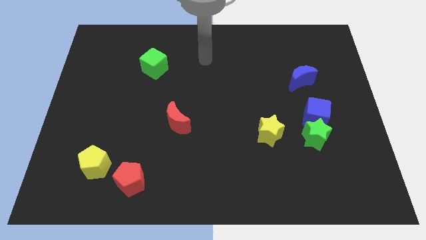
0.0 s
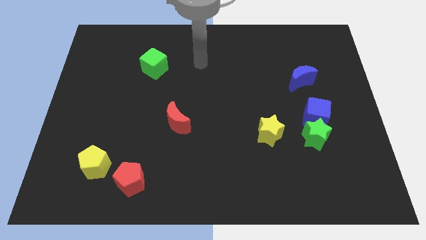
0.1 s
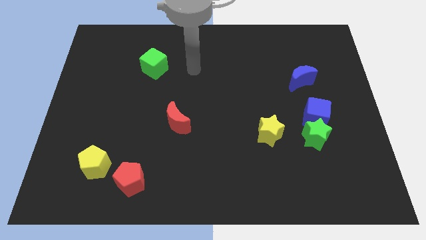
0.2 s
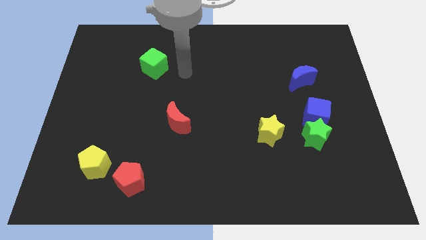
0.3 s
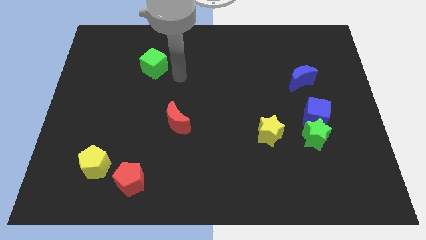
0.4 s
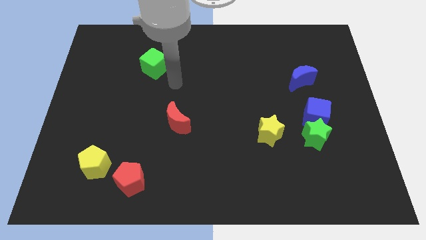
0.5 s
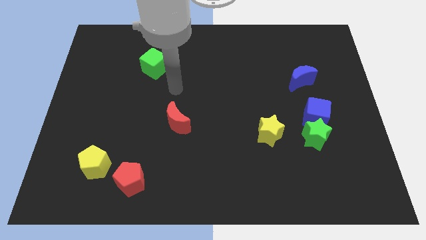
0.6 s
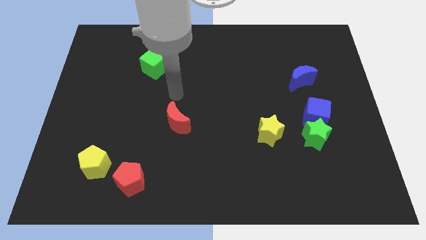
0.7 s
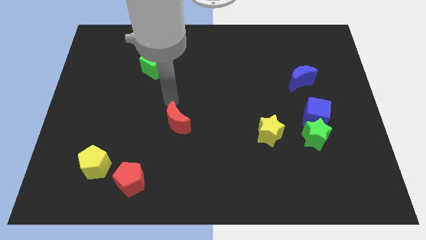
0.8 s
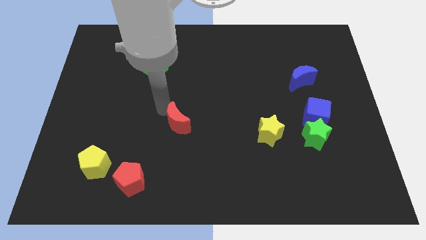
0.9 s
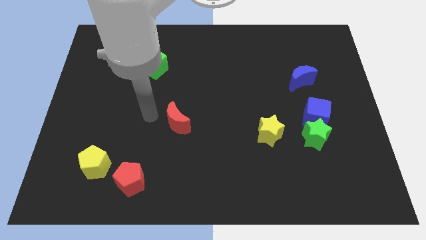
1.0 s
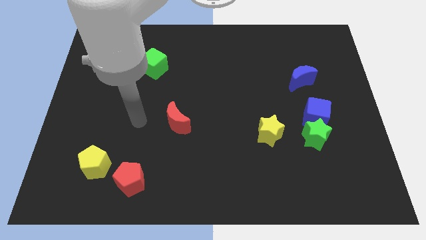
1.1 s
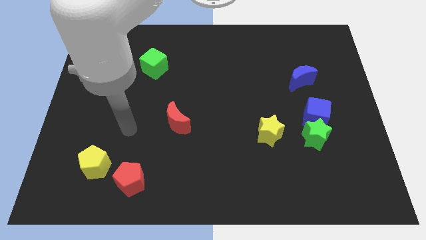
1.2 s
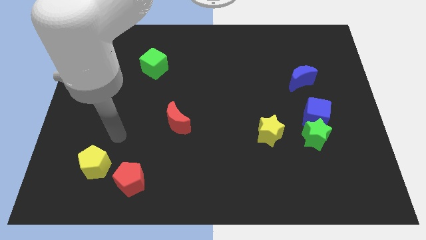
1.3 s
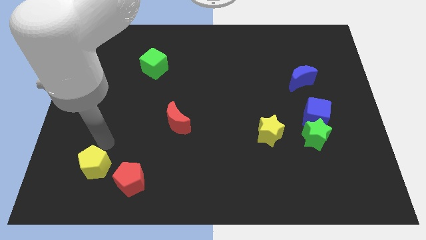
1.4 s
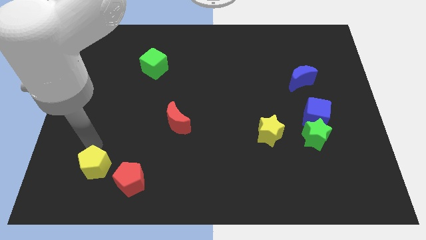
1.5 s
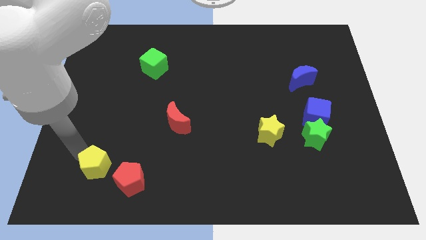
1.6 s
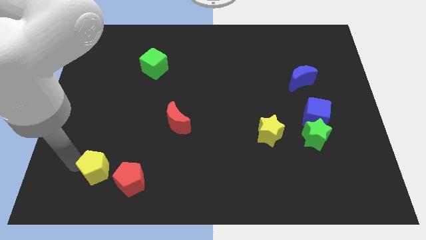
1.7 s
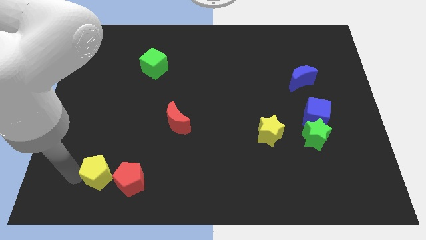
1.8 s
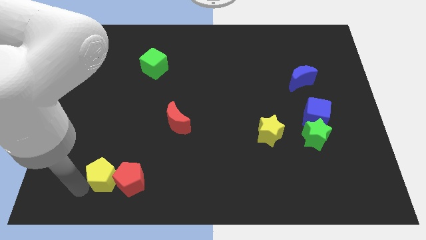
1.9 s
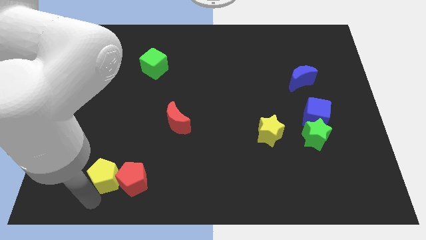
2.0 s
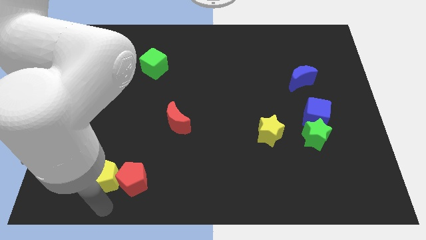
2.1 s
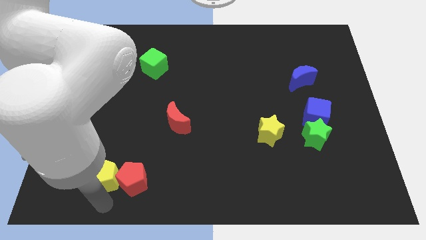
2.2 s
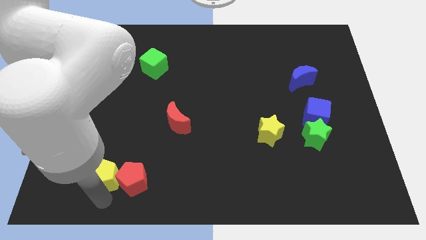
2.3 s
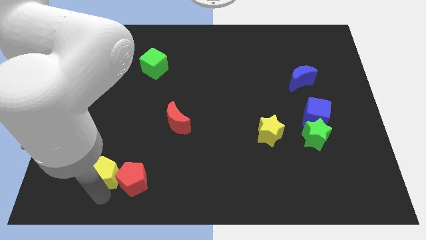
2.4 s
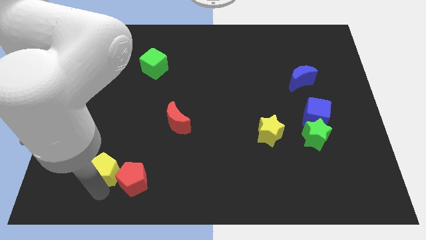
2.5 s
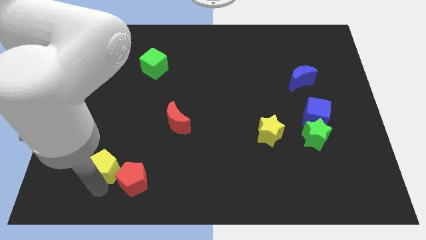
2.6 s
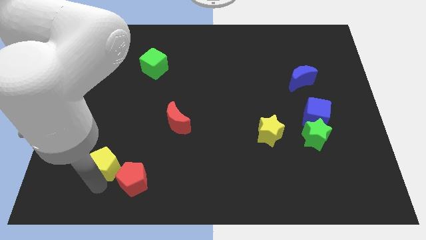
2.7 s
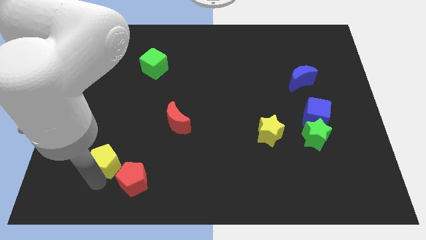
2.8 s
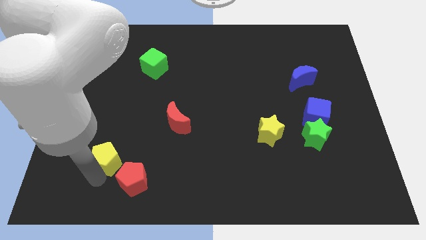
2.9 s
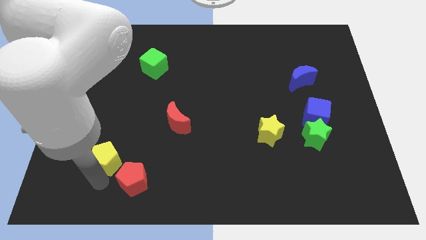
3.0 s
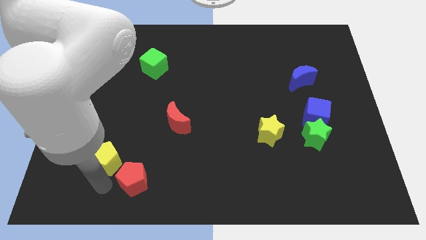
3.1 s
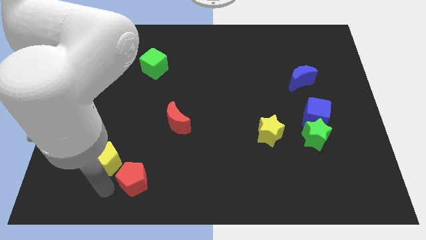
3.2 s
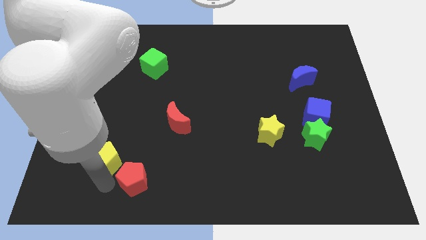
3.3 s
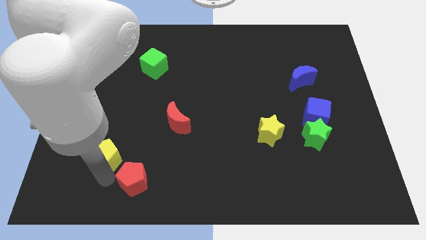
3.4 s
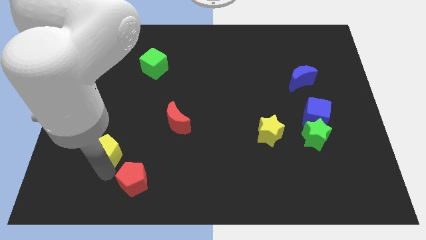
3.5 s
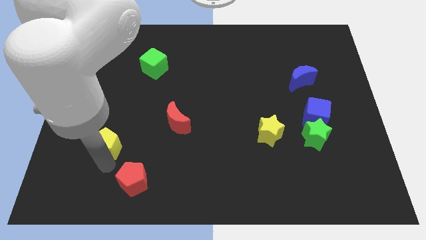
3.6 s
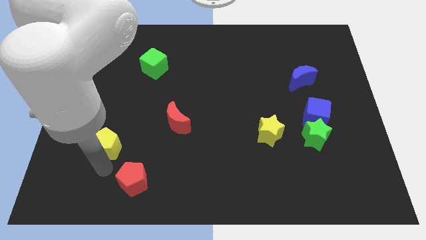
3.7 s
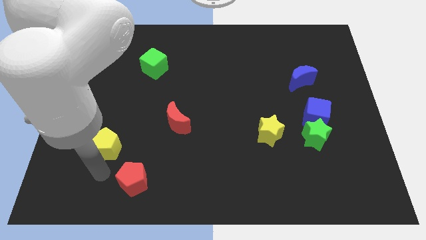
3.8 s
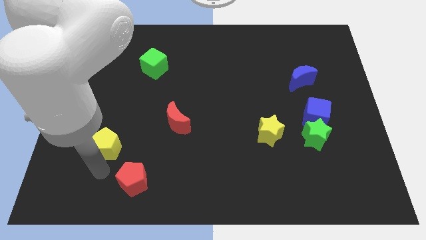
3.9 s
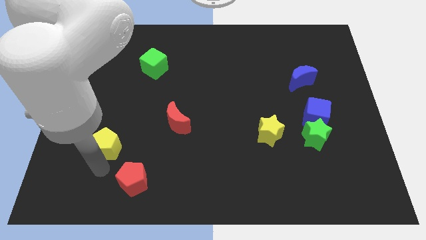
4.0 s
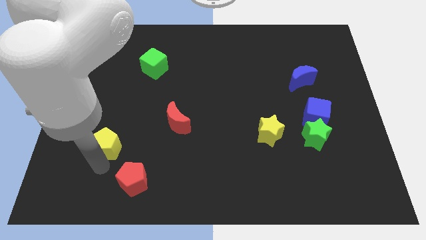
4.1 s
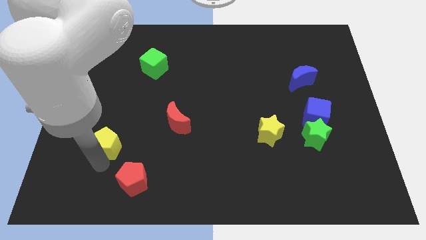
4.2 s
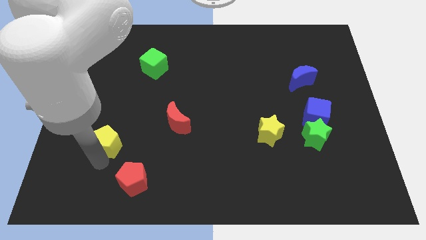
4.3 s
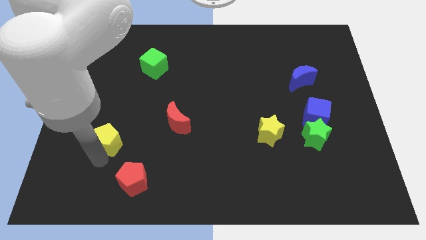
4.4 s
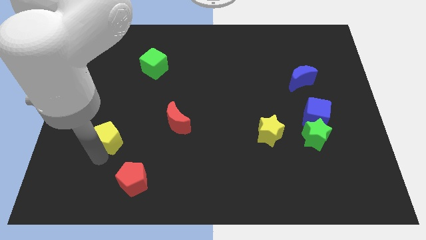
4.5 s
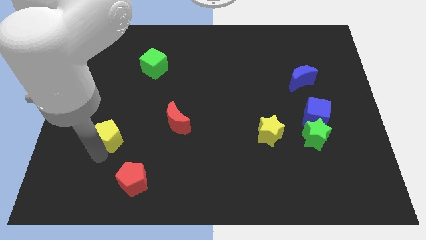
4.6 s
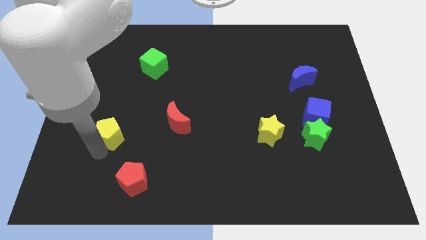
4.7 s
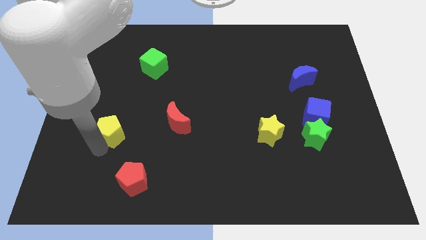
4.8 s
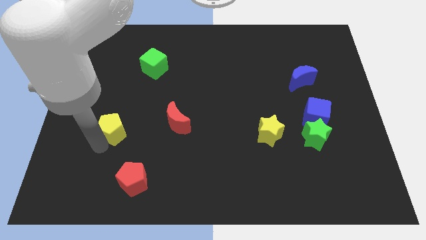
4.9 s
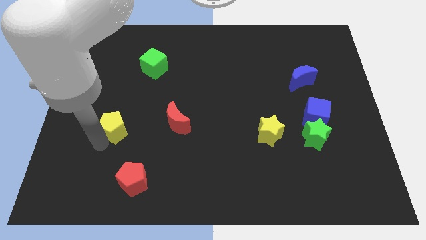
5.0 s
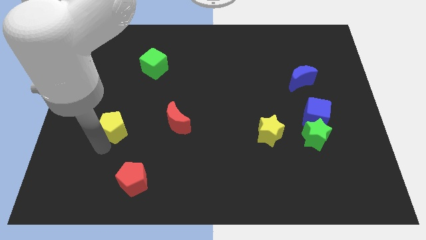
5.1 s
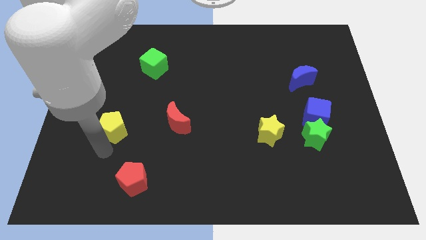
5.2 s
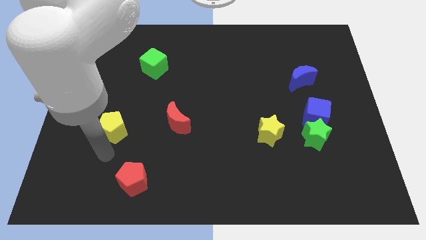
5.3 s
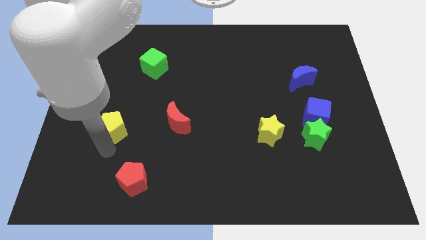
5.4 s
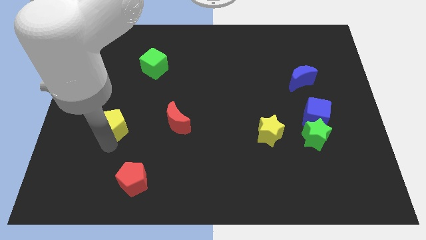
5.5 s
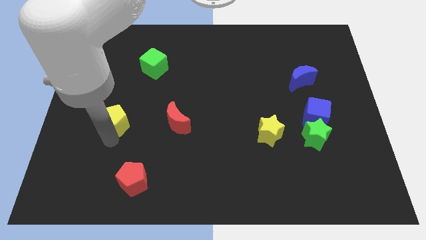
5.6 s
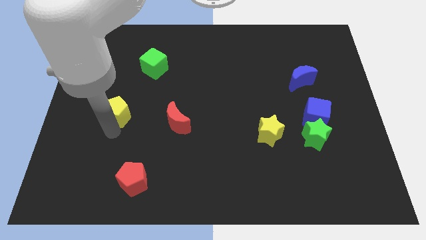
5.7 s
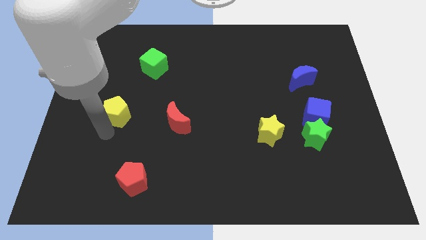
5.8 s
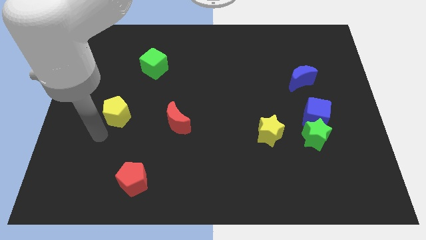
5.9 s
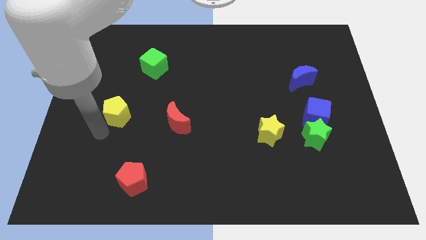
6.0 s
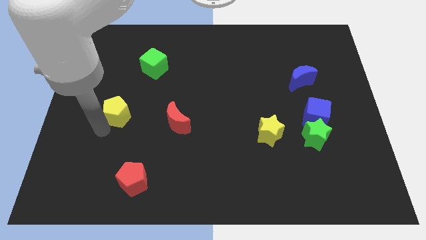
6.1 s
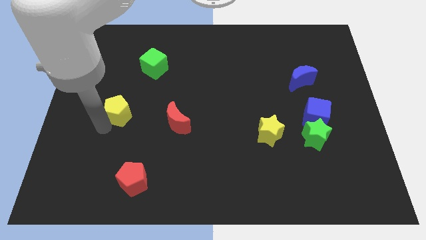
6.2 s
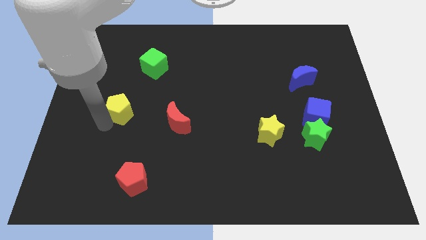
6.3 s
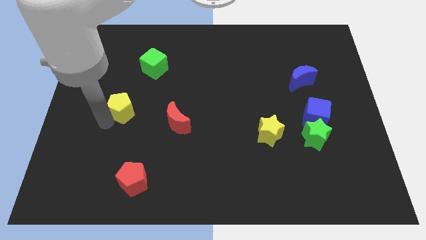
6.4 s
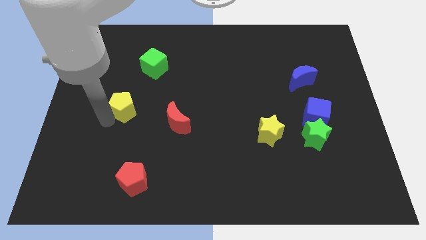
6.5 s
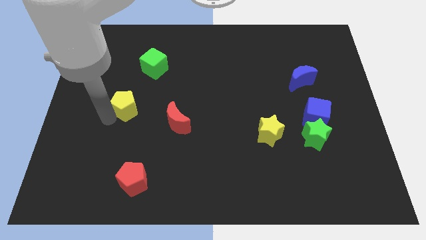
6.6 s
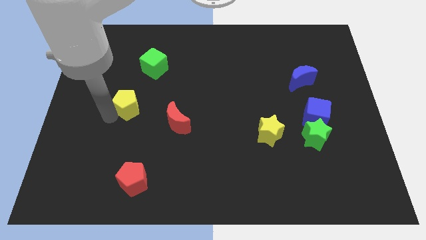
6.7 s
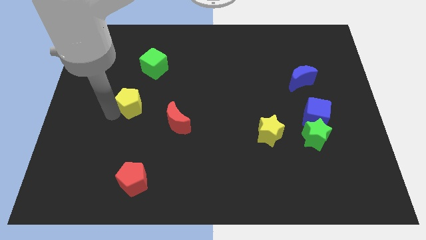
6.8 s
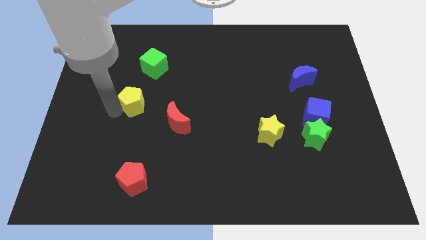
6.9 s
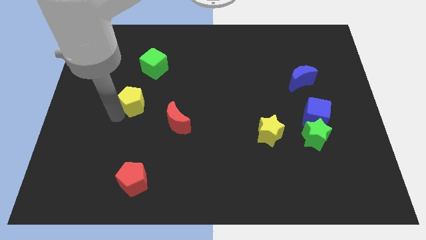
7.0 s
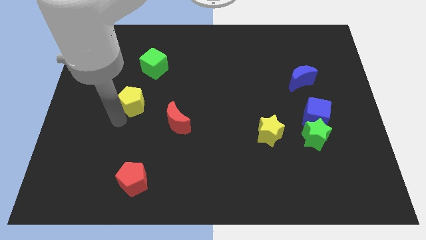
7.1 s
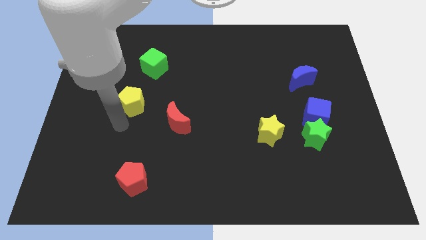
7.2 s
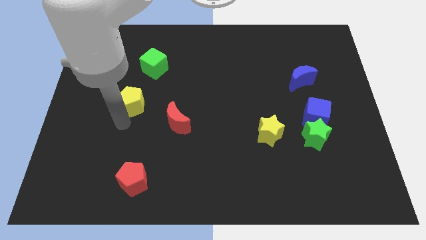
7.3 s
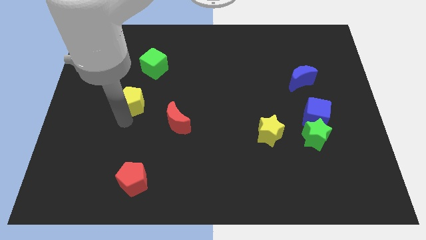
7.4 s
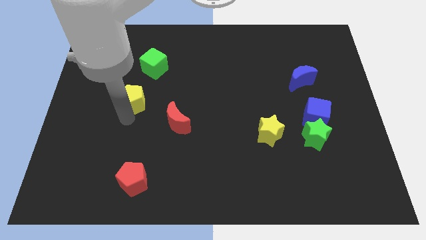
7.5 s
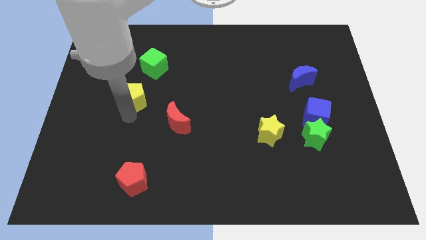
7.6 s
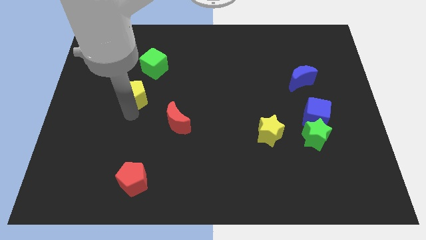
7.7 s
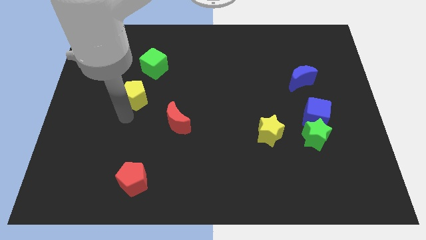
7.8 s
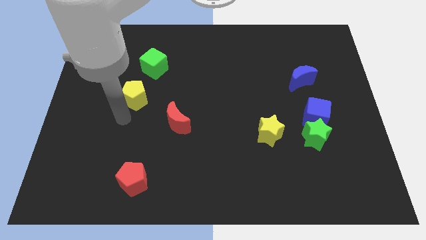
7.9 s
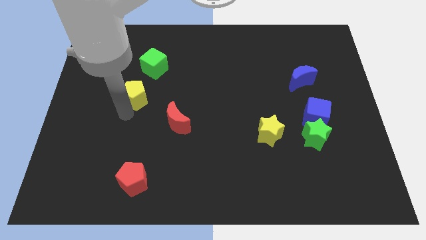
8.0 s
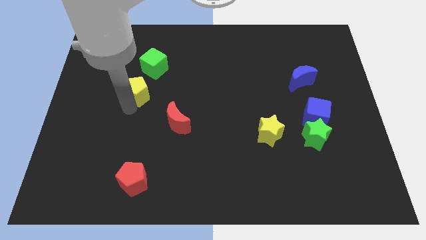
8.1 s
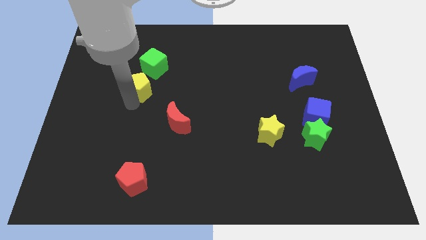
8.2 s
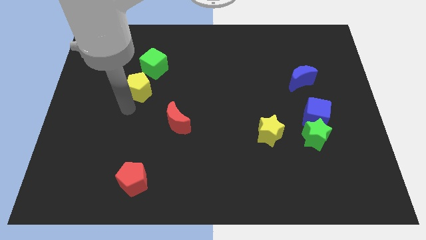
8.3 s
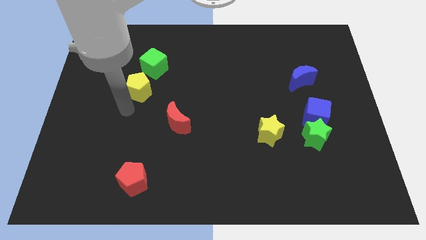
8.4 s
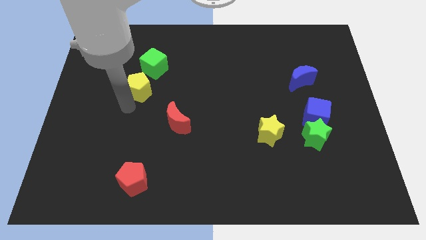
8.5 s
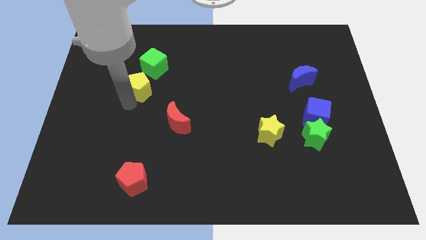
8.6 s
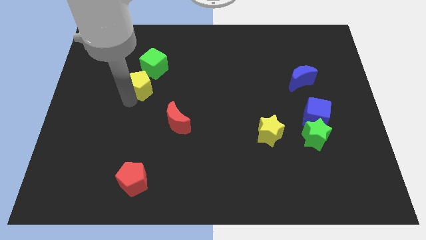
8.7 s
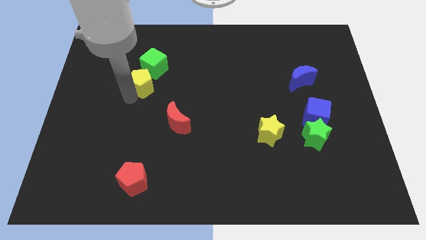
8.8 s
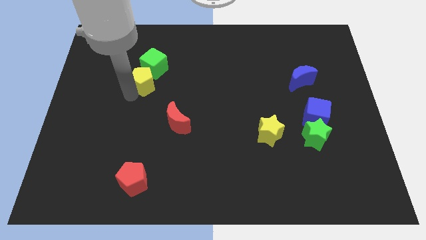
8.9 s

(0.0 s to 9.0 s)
slide the yellow pentagon close to the green cube
